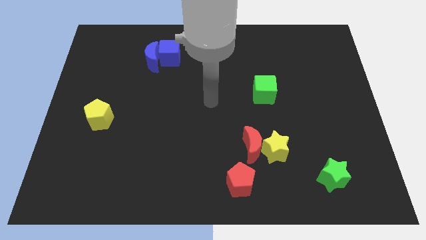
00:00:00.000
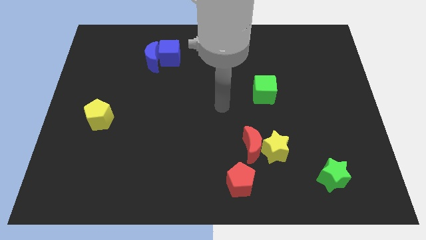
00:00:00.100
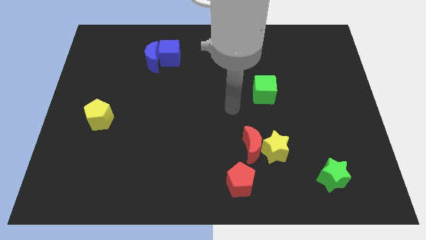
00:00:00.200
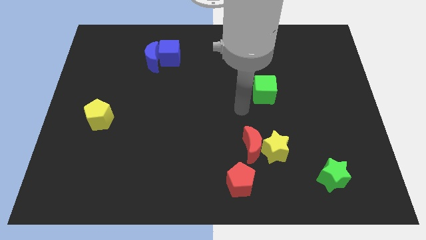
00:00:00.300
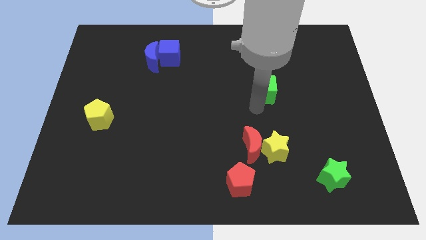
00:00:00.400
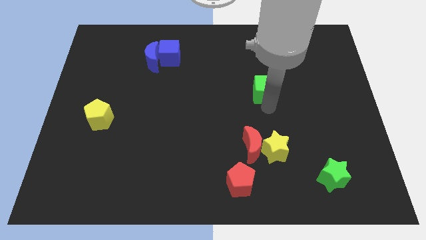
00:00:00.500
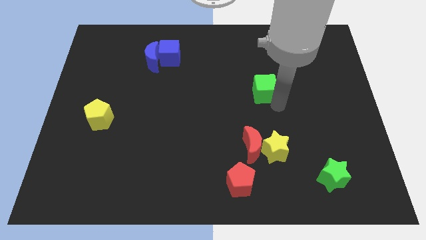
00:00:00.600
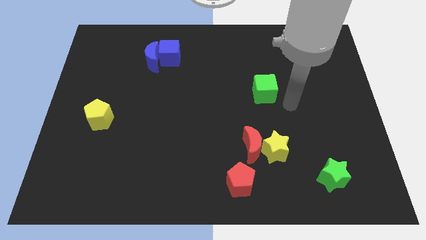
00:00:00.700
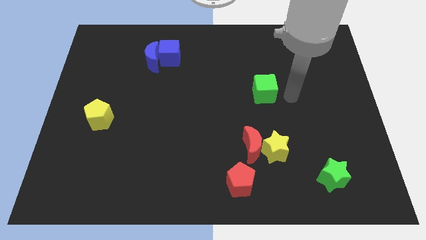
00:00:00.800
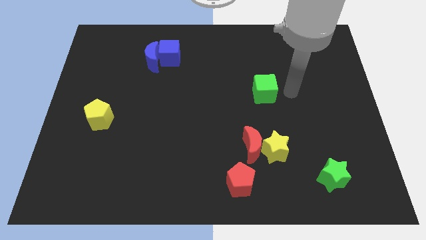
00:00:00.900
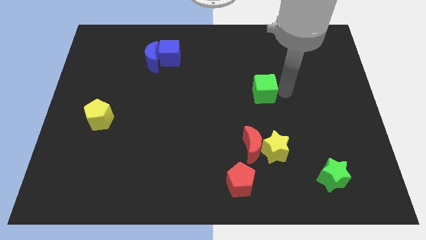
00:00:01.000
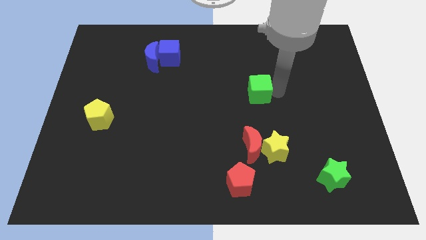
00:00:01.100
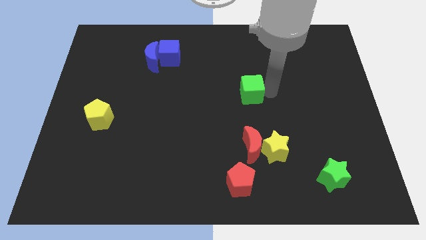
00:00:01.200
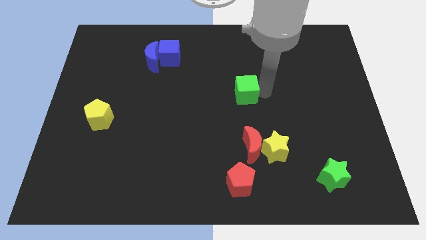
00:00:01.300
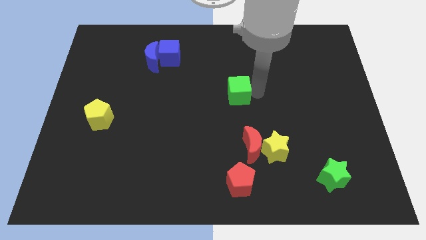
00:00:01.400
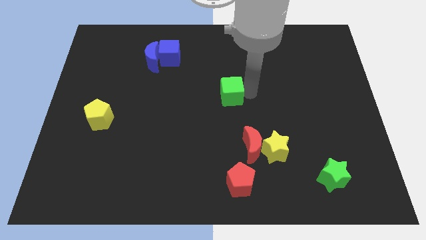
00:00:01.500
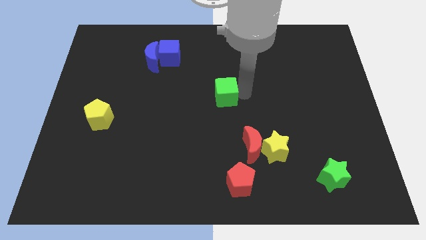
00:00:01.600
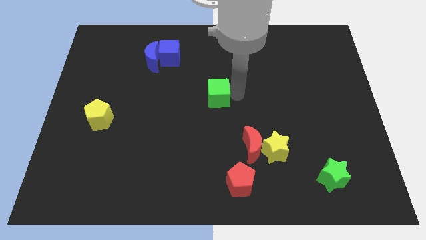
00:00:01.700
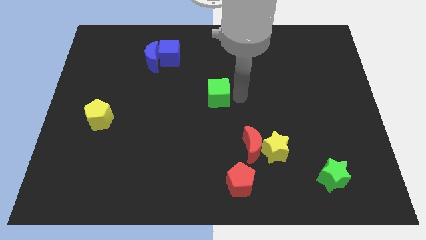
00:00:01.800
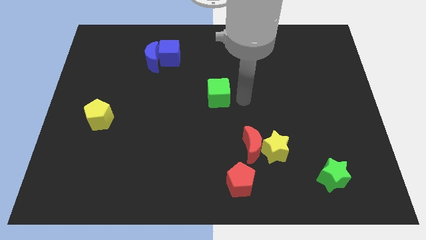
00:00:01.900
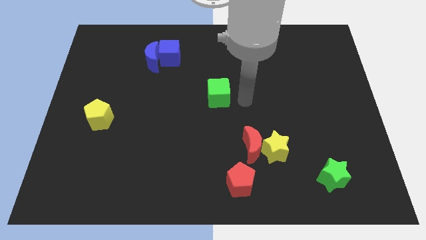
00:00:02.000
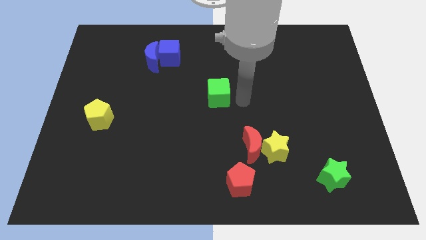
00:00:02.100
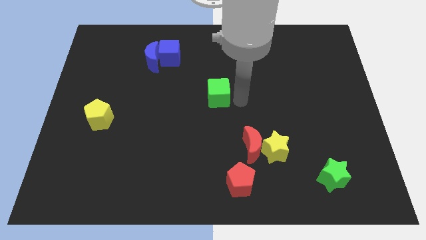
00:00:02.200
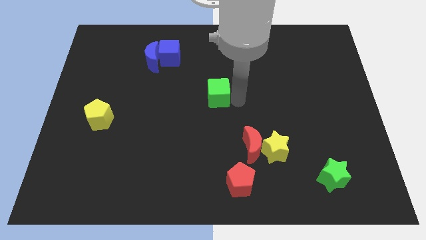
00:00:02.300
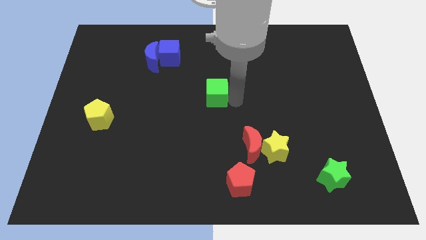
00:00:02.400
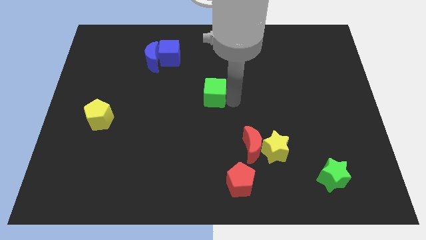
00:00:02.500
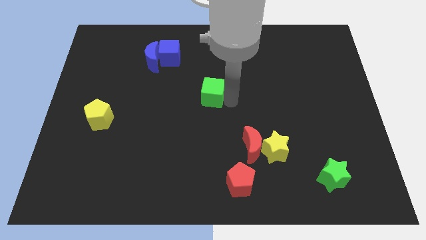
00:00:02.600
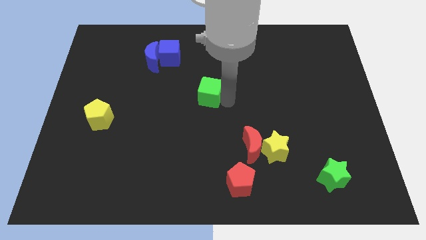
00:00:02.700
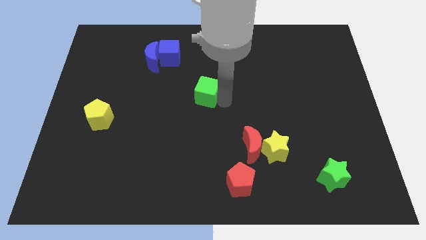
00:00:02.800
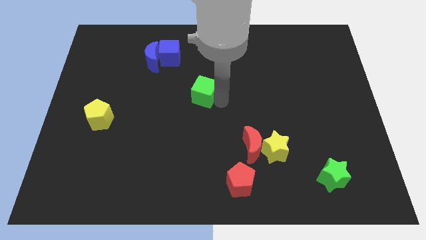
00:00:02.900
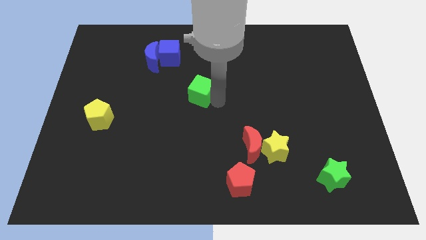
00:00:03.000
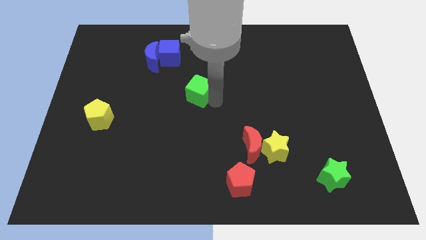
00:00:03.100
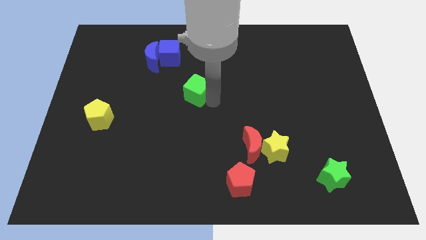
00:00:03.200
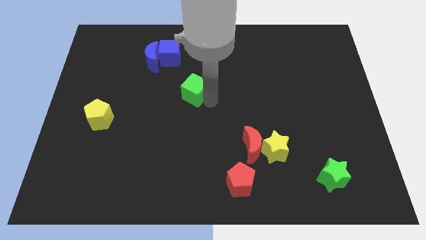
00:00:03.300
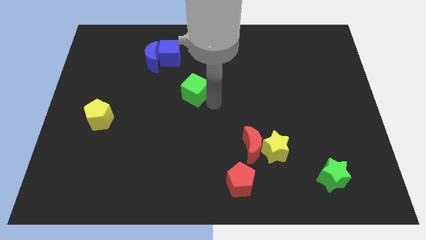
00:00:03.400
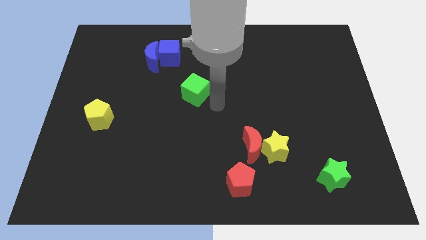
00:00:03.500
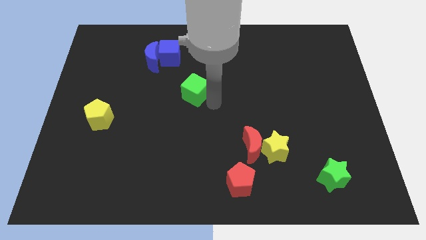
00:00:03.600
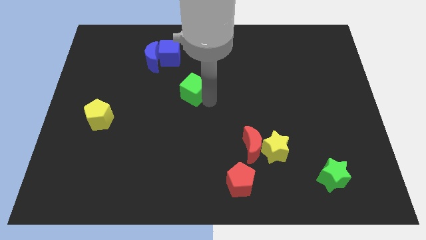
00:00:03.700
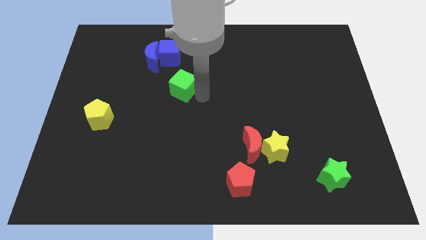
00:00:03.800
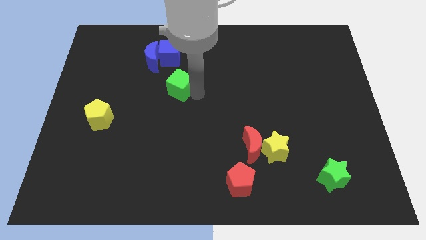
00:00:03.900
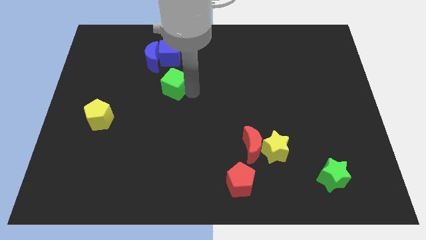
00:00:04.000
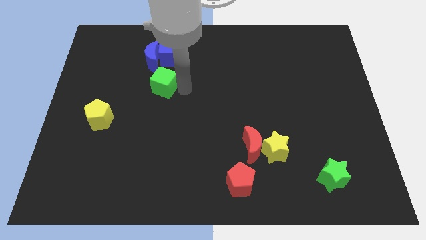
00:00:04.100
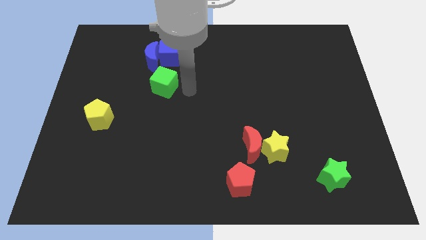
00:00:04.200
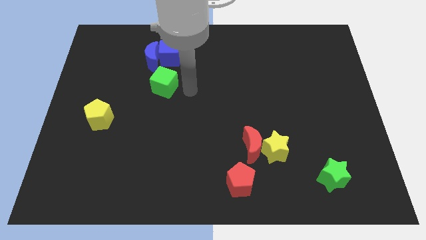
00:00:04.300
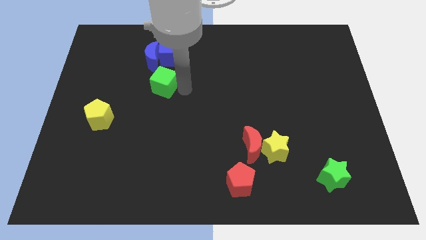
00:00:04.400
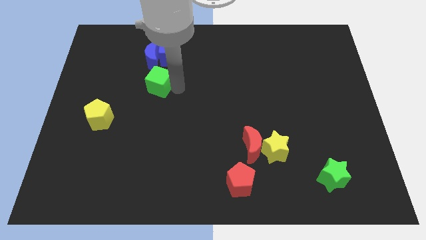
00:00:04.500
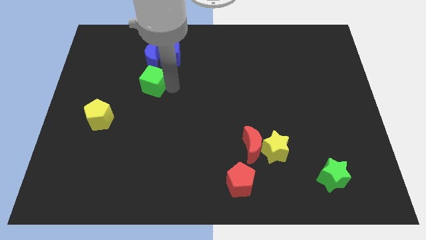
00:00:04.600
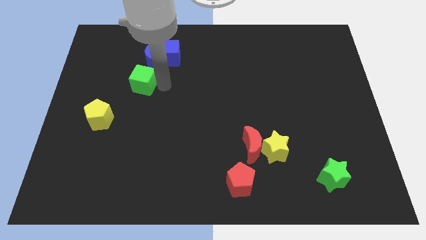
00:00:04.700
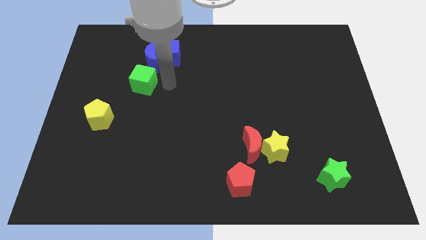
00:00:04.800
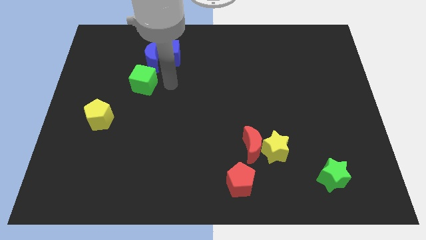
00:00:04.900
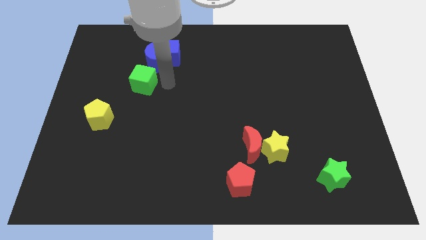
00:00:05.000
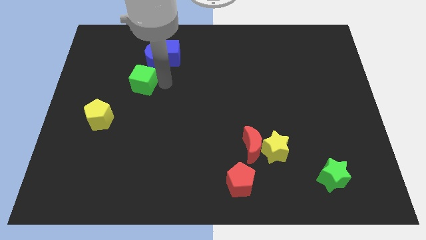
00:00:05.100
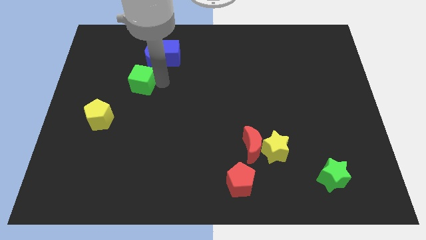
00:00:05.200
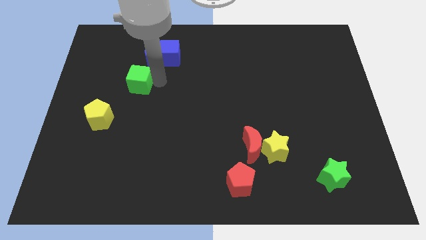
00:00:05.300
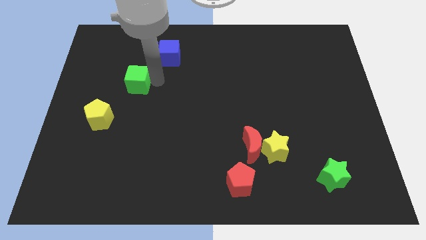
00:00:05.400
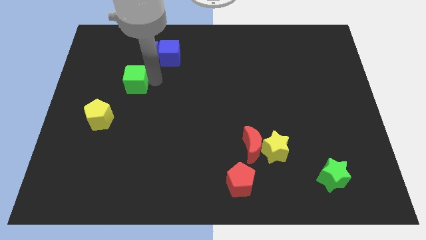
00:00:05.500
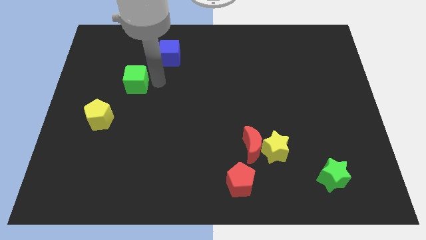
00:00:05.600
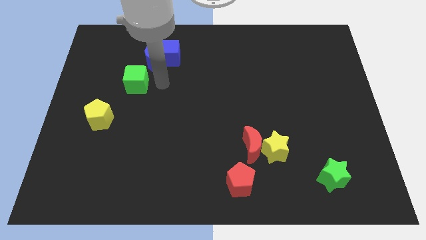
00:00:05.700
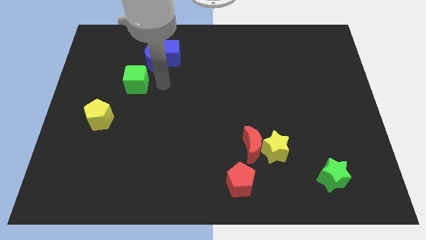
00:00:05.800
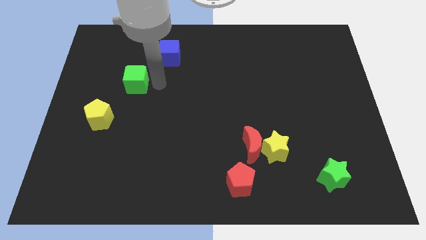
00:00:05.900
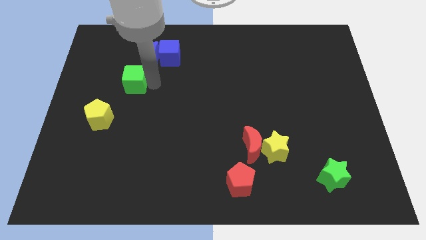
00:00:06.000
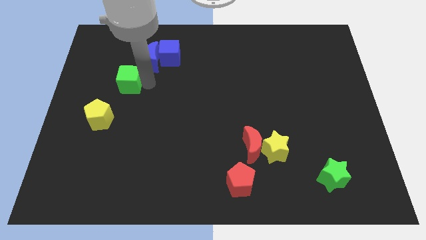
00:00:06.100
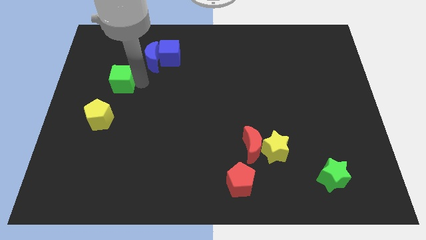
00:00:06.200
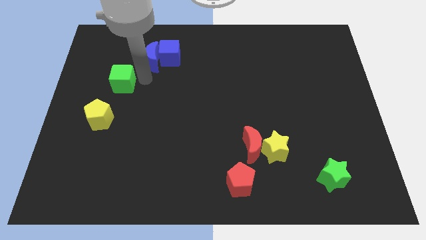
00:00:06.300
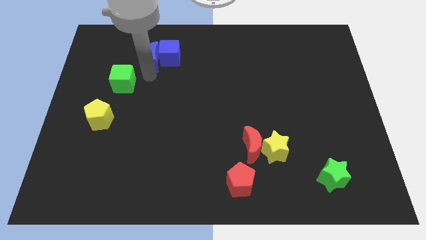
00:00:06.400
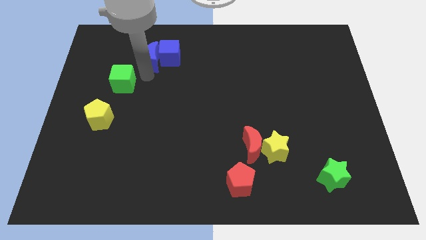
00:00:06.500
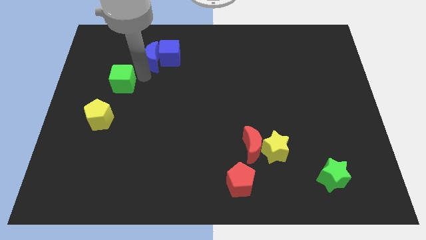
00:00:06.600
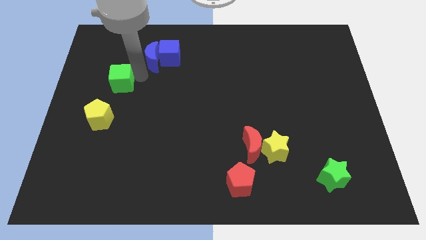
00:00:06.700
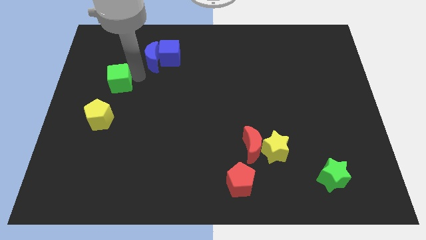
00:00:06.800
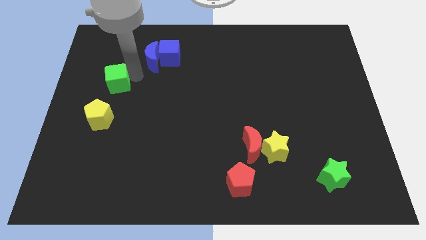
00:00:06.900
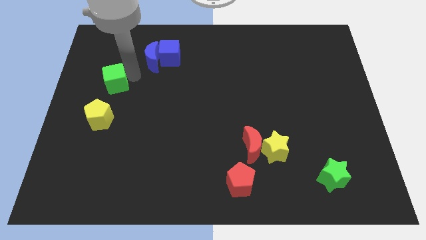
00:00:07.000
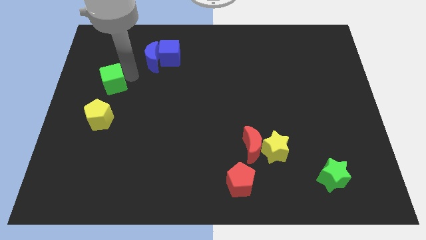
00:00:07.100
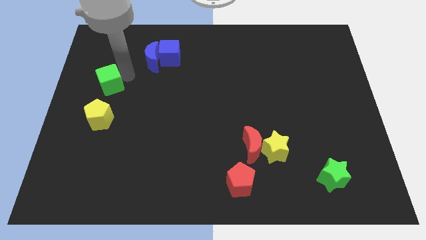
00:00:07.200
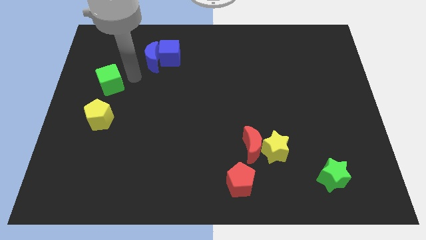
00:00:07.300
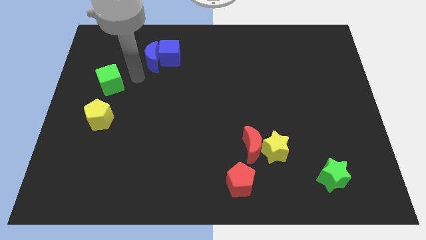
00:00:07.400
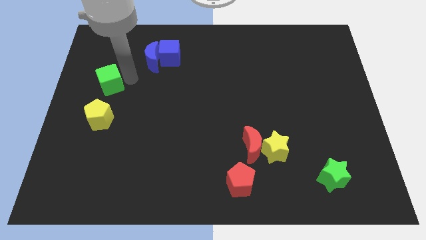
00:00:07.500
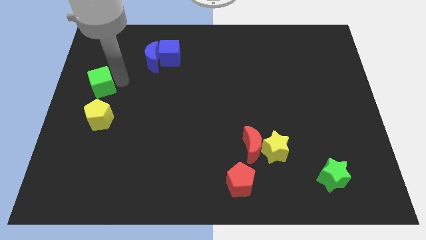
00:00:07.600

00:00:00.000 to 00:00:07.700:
push the green cube to the left side
